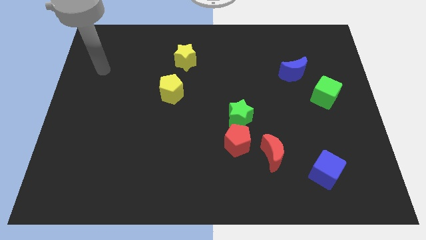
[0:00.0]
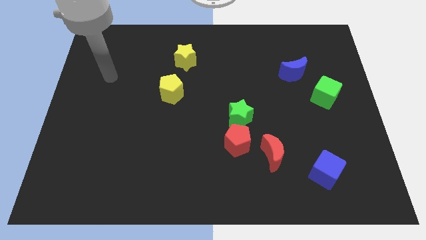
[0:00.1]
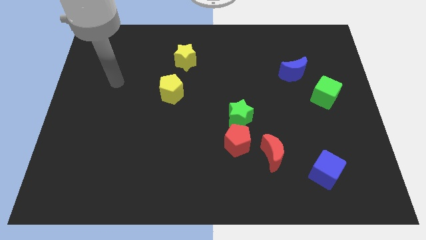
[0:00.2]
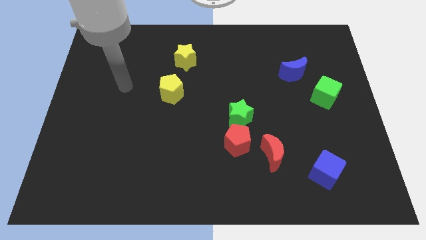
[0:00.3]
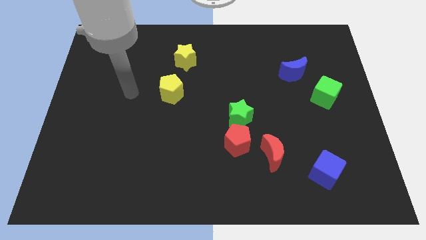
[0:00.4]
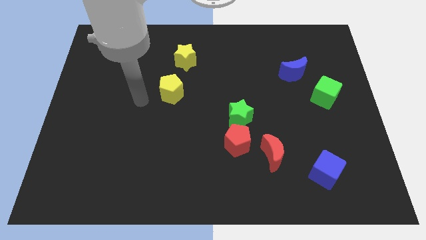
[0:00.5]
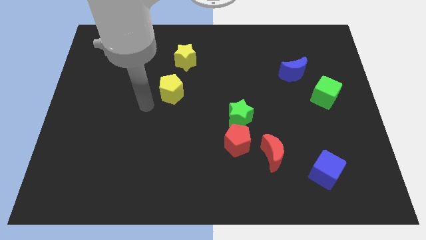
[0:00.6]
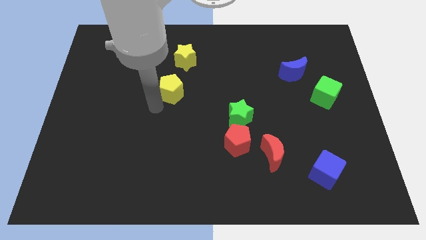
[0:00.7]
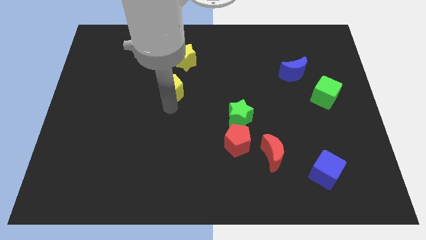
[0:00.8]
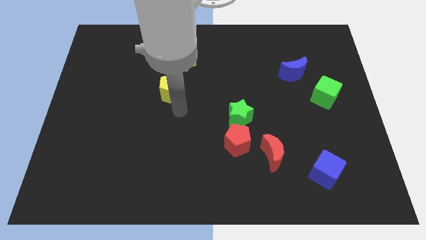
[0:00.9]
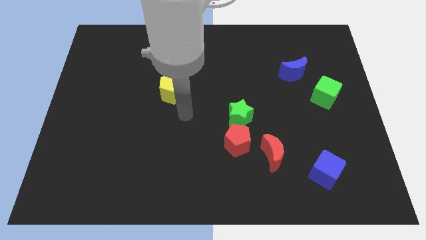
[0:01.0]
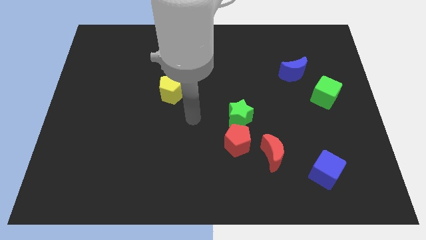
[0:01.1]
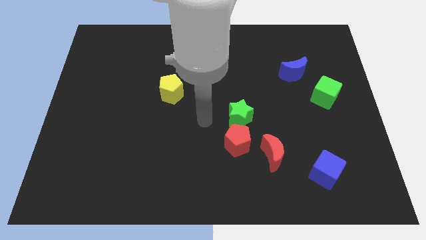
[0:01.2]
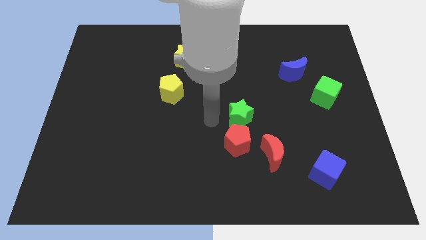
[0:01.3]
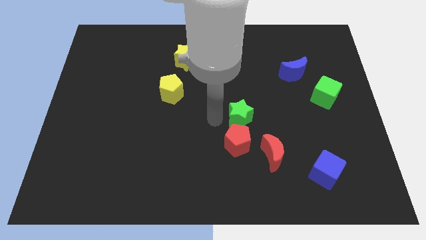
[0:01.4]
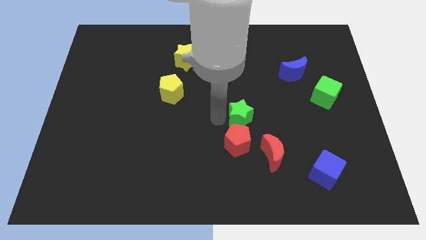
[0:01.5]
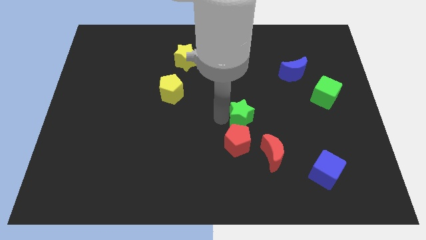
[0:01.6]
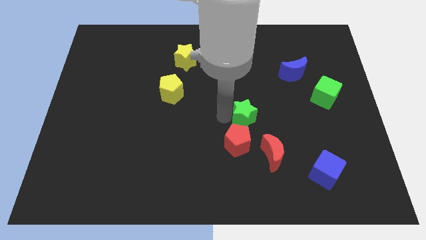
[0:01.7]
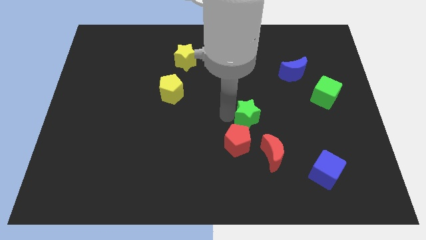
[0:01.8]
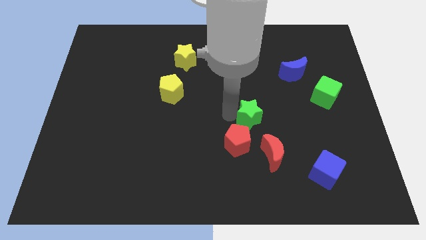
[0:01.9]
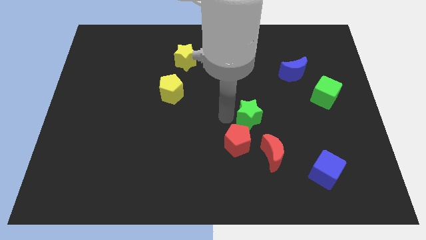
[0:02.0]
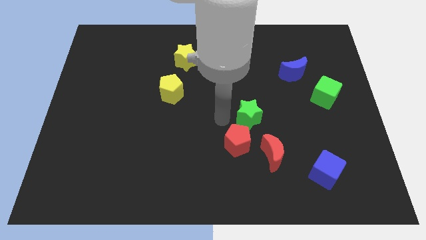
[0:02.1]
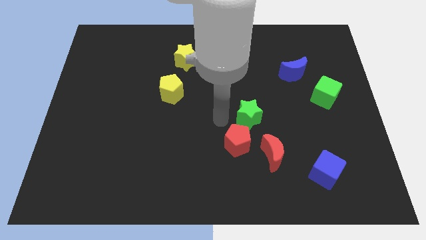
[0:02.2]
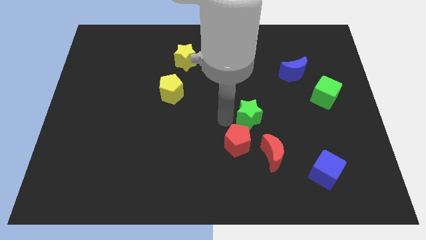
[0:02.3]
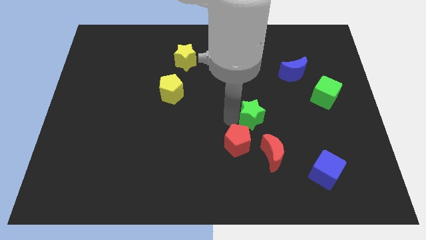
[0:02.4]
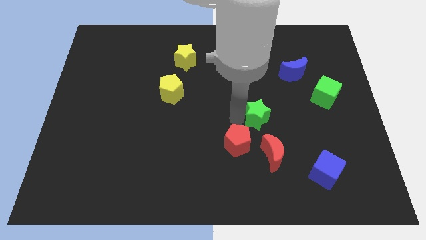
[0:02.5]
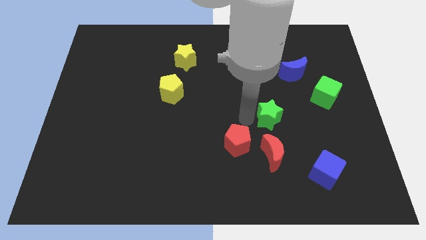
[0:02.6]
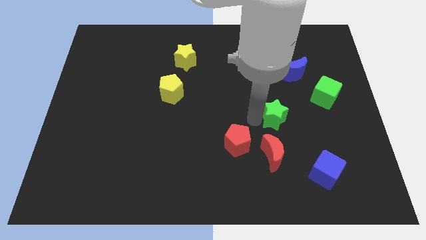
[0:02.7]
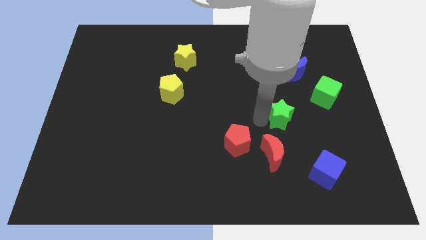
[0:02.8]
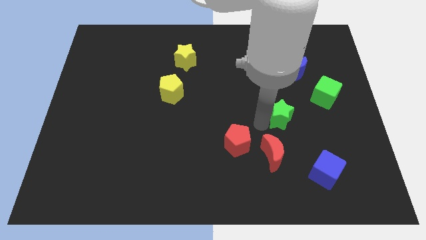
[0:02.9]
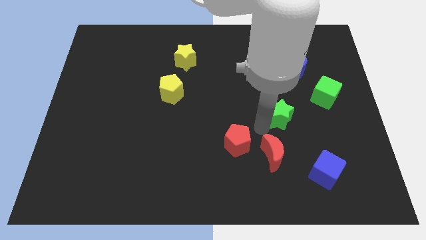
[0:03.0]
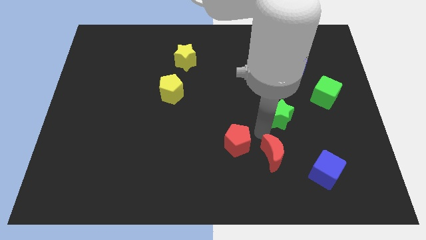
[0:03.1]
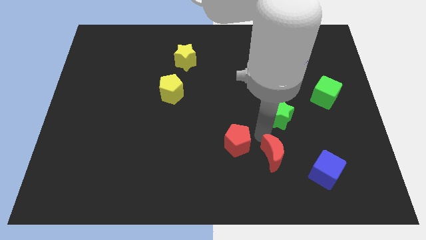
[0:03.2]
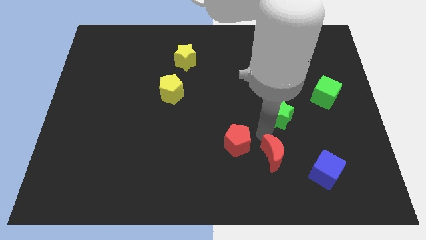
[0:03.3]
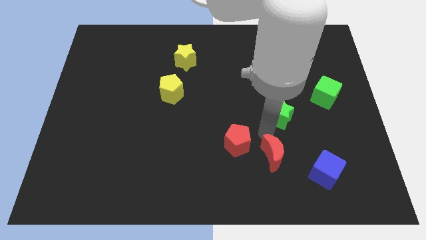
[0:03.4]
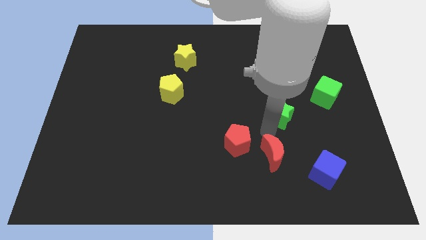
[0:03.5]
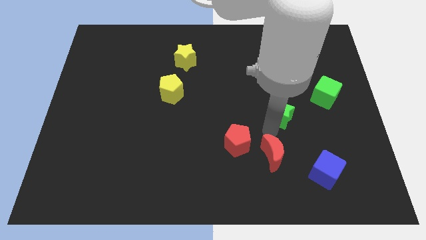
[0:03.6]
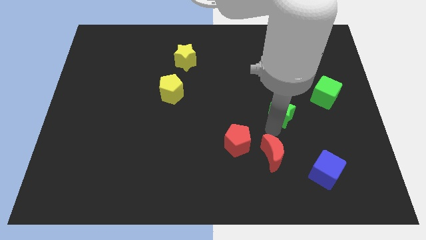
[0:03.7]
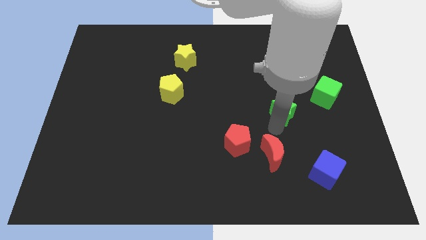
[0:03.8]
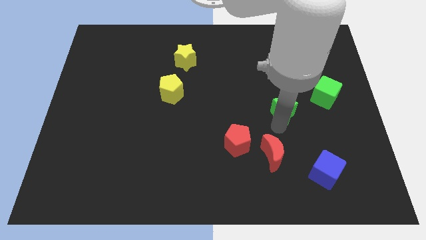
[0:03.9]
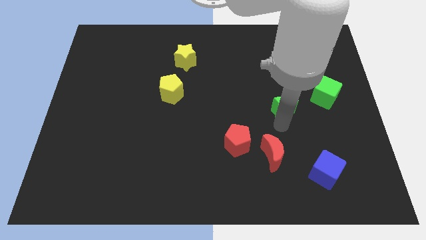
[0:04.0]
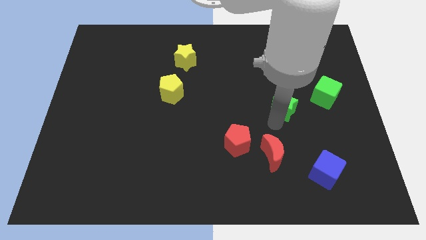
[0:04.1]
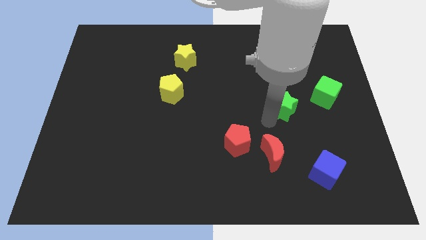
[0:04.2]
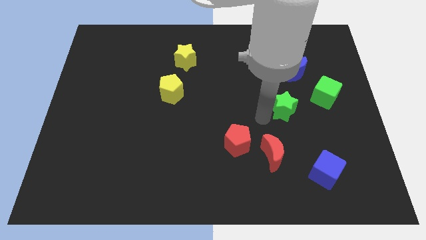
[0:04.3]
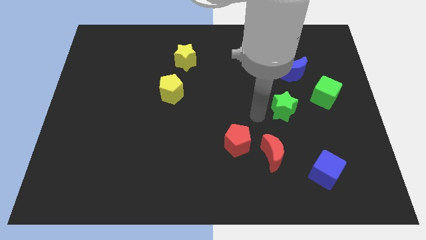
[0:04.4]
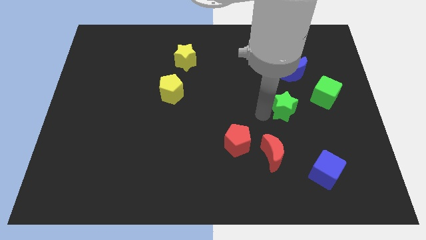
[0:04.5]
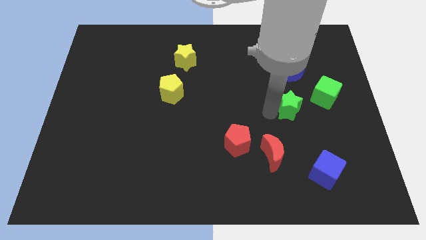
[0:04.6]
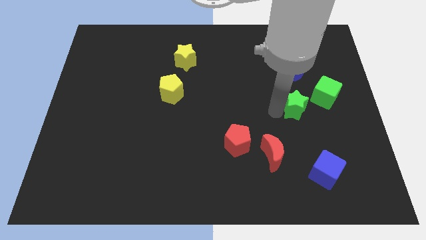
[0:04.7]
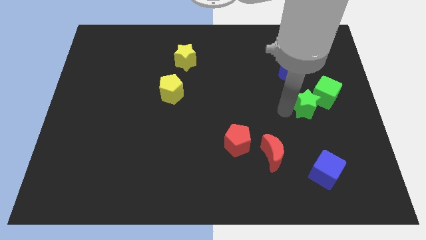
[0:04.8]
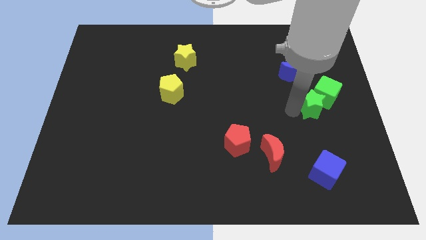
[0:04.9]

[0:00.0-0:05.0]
push the green star towards the green cube

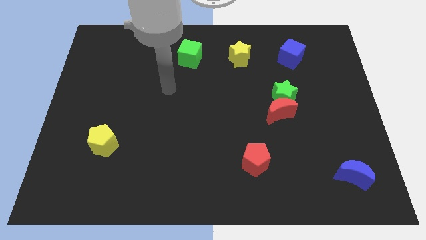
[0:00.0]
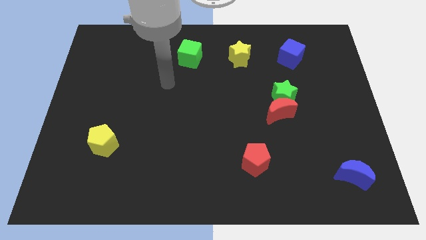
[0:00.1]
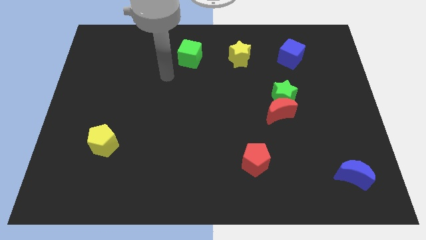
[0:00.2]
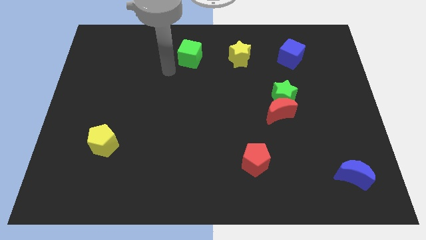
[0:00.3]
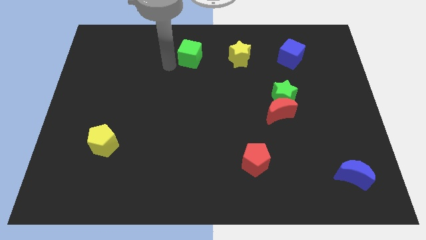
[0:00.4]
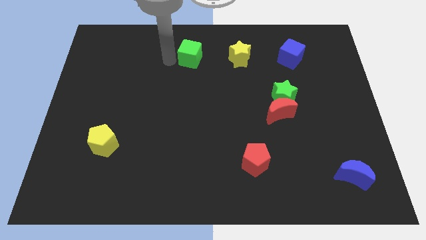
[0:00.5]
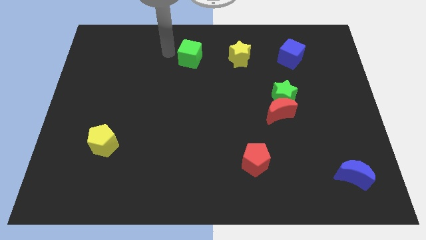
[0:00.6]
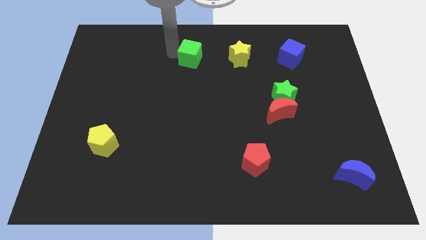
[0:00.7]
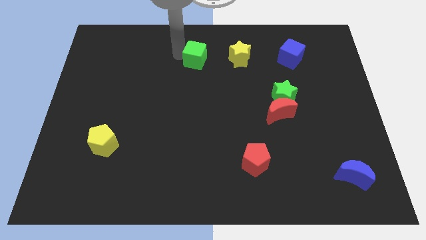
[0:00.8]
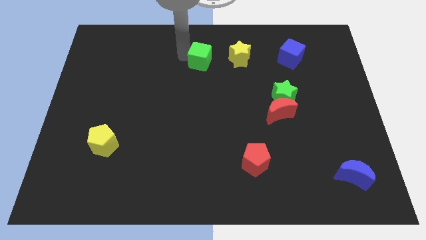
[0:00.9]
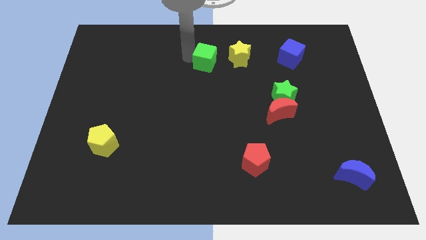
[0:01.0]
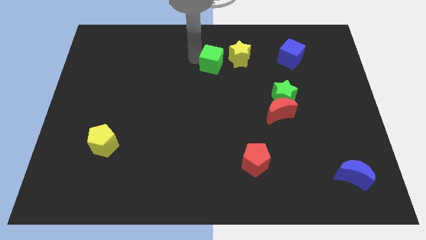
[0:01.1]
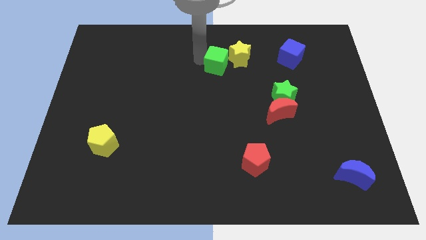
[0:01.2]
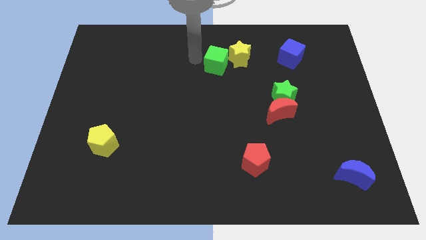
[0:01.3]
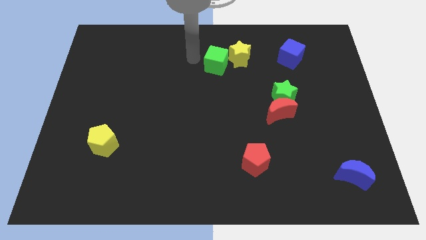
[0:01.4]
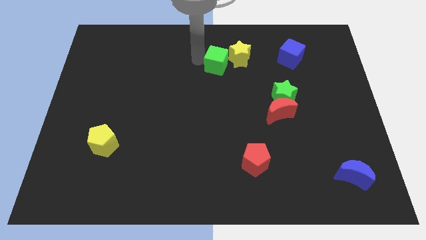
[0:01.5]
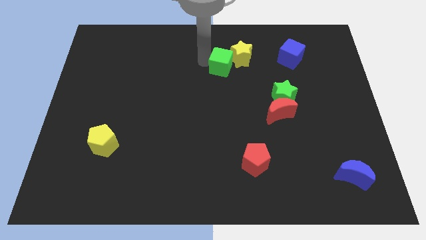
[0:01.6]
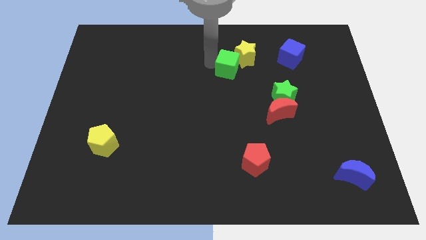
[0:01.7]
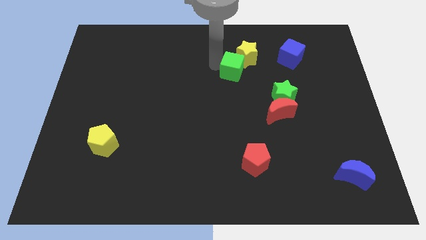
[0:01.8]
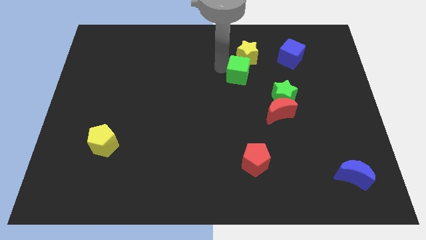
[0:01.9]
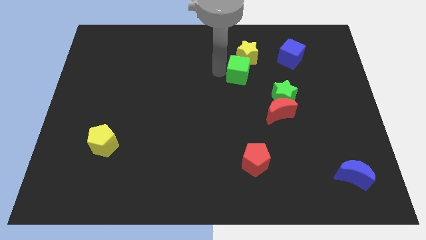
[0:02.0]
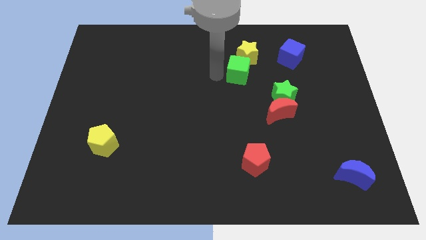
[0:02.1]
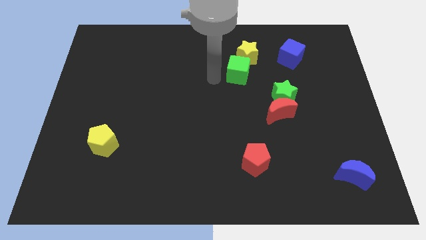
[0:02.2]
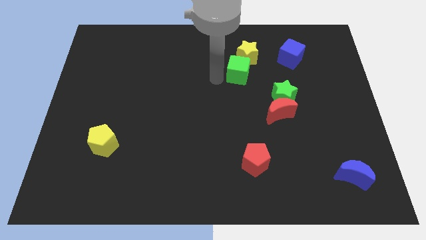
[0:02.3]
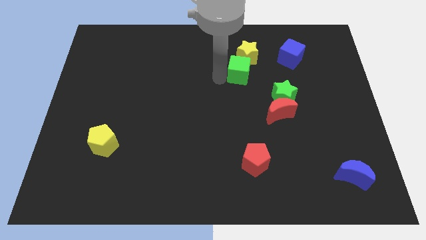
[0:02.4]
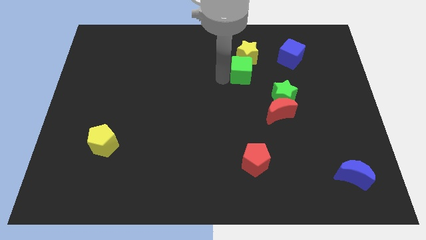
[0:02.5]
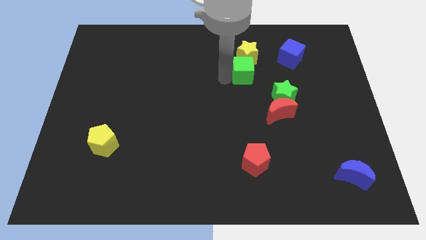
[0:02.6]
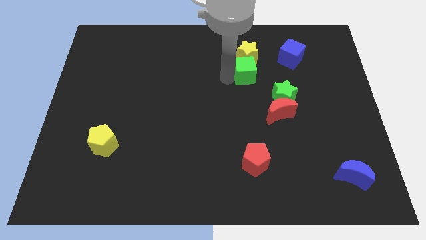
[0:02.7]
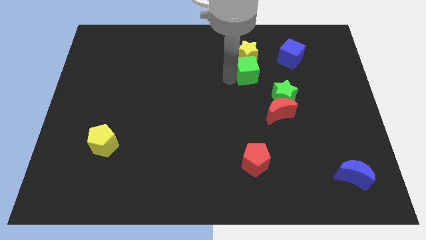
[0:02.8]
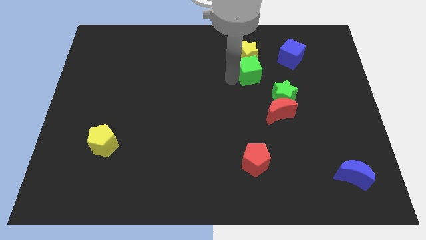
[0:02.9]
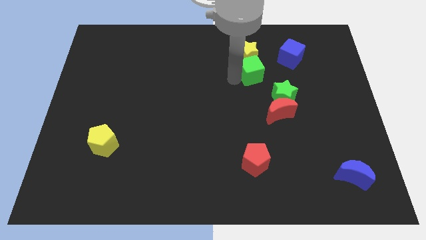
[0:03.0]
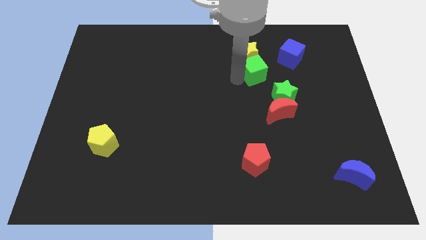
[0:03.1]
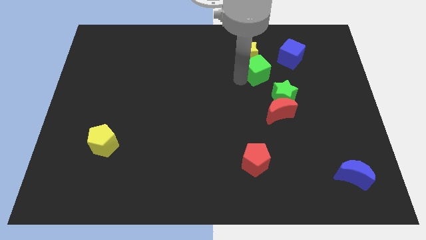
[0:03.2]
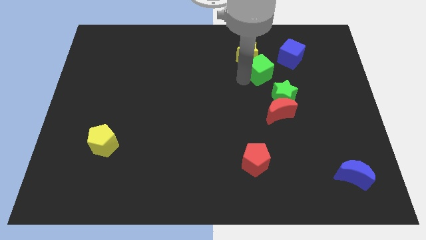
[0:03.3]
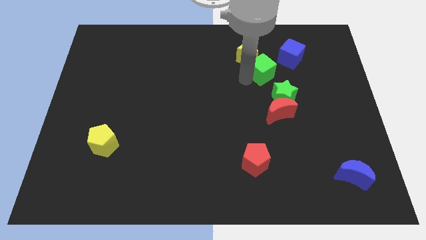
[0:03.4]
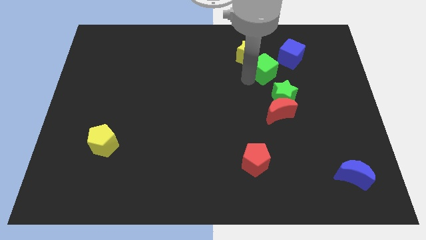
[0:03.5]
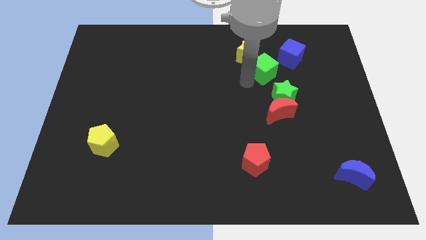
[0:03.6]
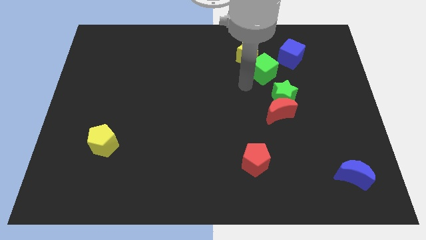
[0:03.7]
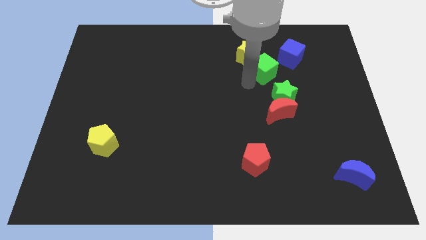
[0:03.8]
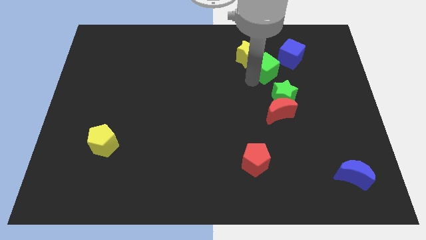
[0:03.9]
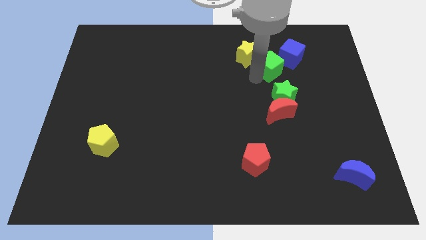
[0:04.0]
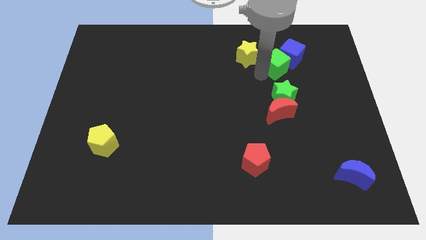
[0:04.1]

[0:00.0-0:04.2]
slide the green cube next to the blue cube
